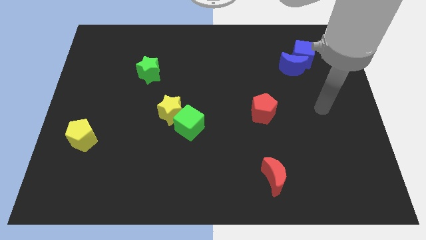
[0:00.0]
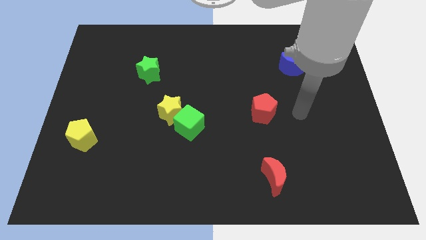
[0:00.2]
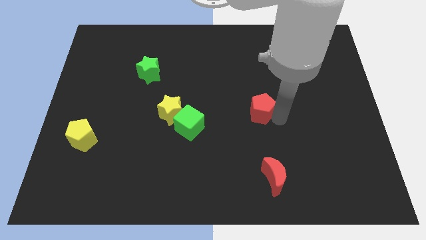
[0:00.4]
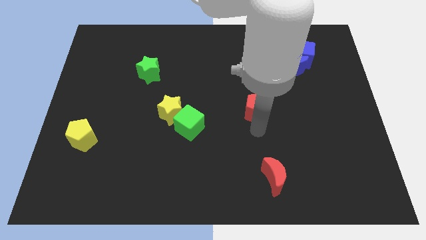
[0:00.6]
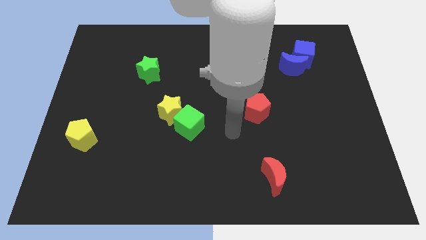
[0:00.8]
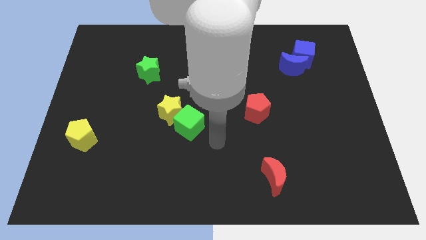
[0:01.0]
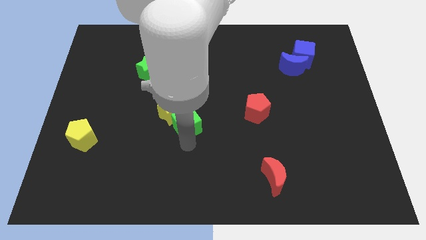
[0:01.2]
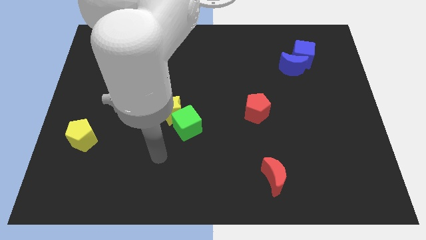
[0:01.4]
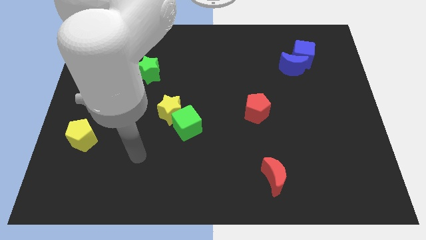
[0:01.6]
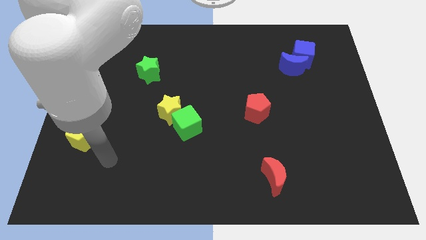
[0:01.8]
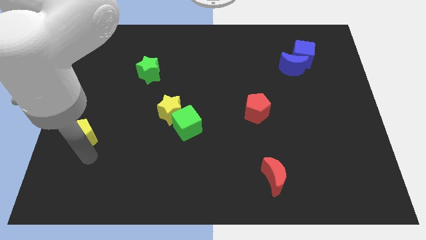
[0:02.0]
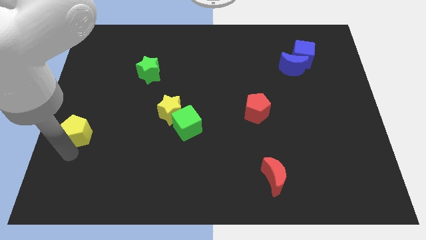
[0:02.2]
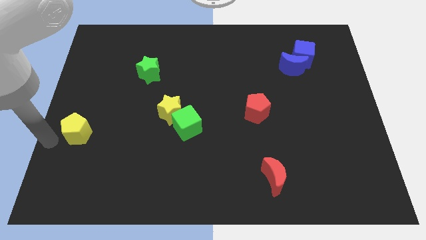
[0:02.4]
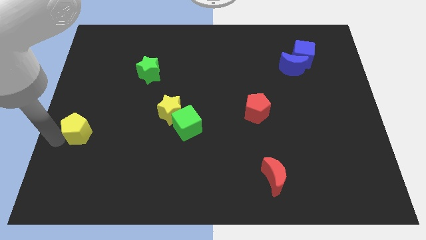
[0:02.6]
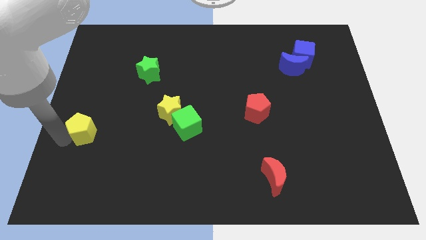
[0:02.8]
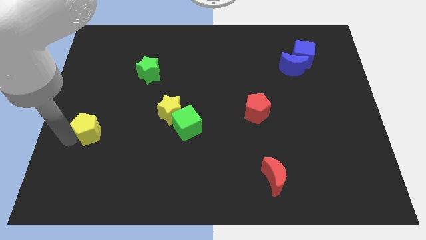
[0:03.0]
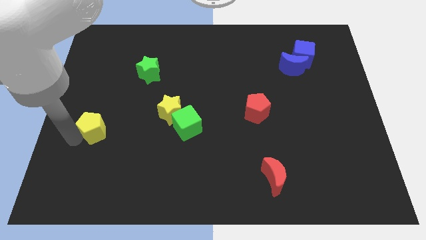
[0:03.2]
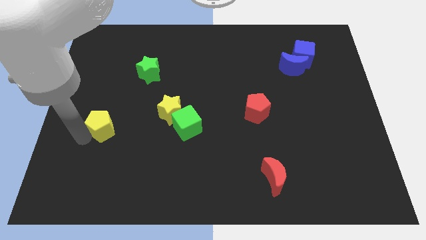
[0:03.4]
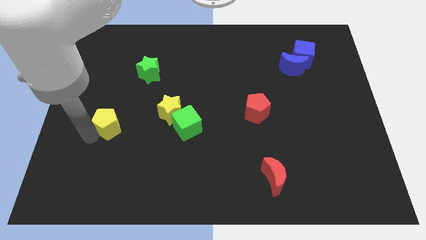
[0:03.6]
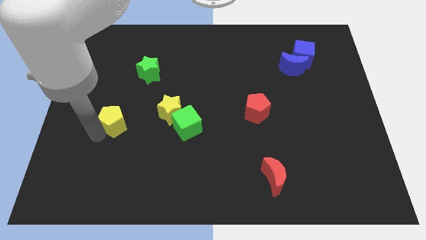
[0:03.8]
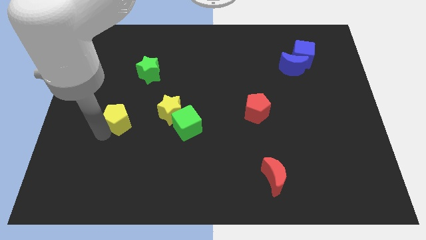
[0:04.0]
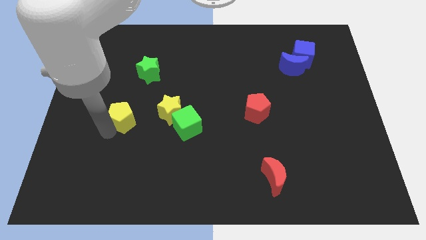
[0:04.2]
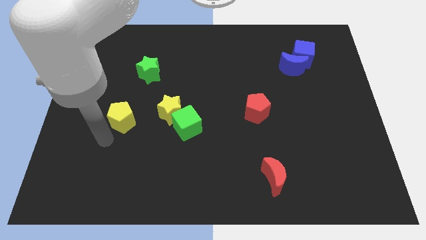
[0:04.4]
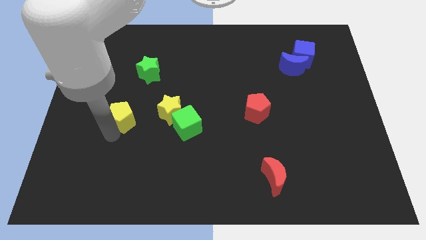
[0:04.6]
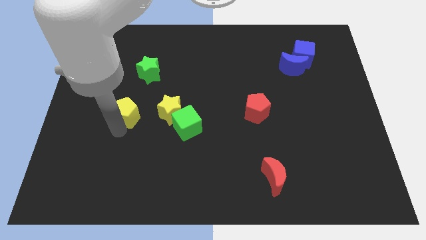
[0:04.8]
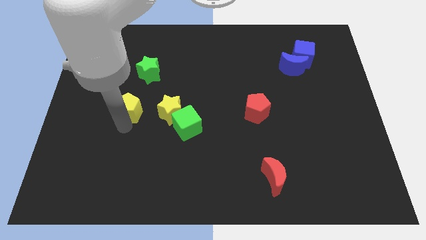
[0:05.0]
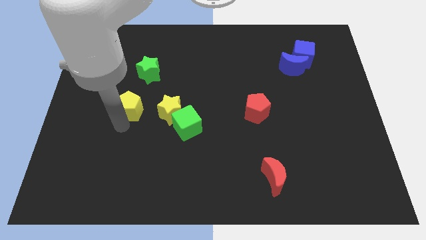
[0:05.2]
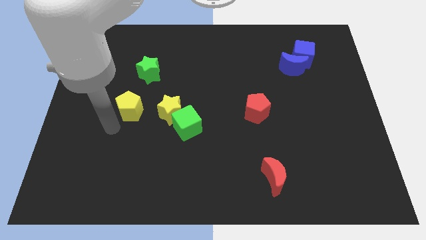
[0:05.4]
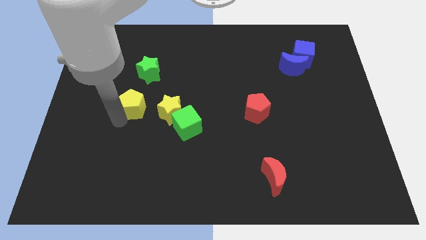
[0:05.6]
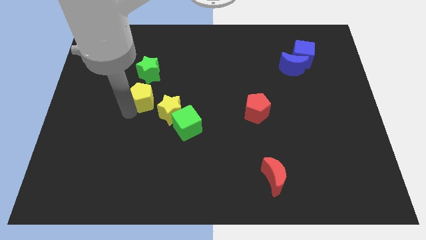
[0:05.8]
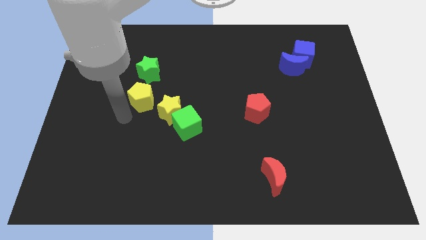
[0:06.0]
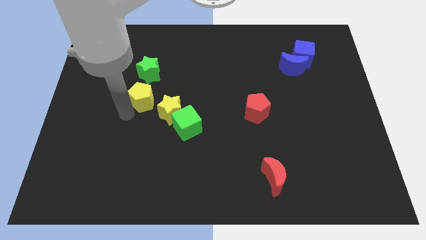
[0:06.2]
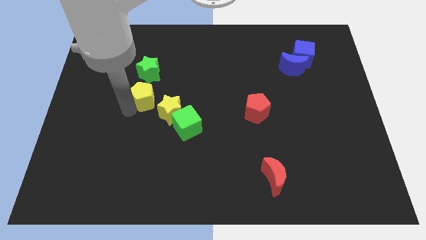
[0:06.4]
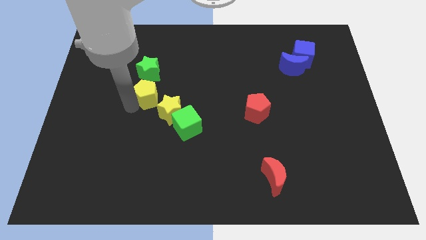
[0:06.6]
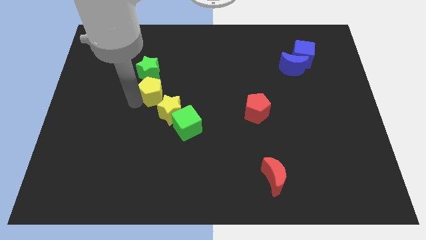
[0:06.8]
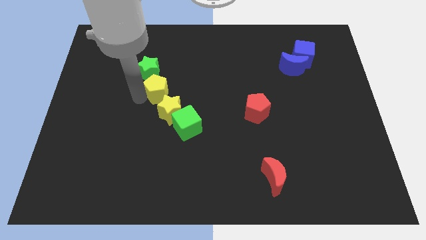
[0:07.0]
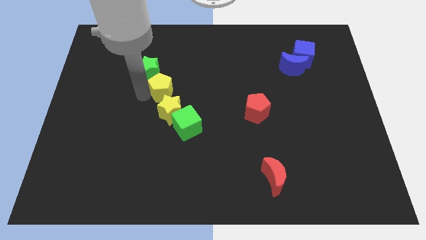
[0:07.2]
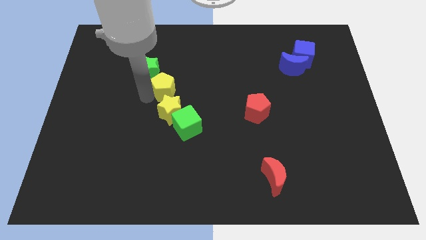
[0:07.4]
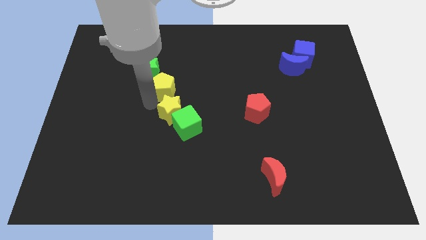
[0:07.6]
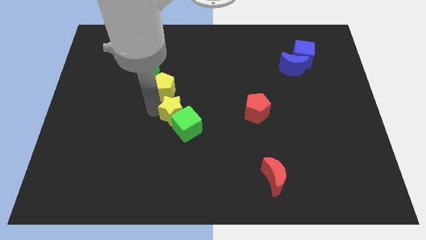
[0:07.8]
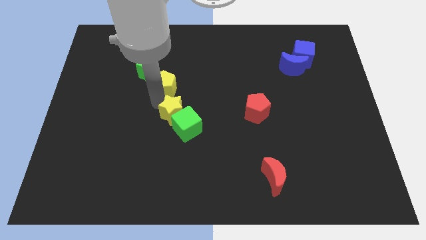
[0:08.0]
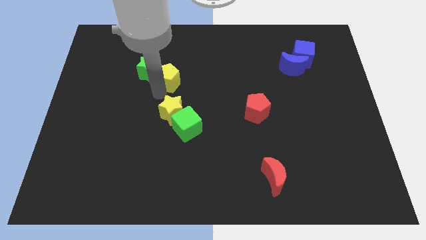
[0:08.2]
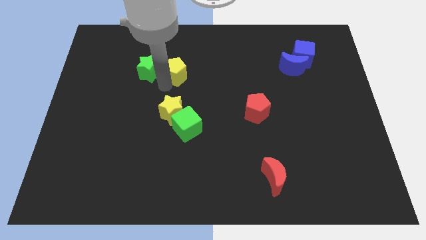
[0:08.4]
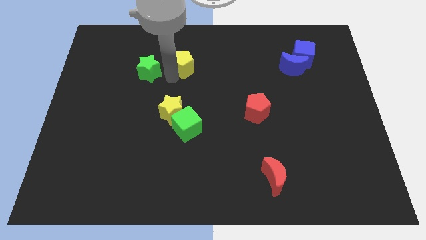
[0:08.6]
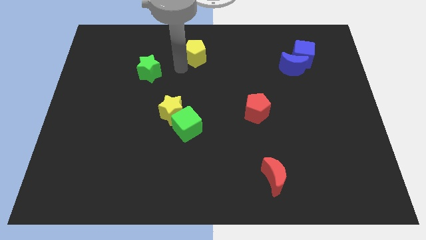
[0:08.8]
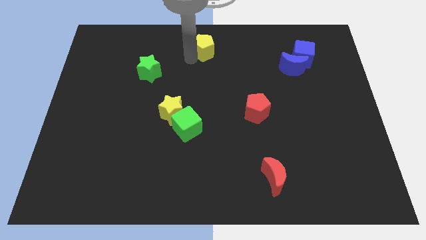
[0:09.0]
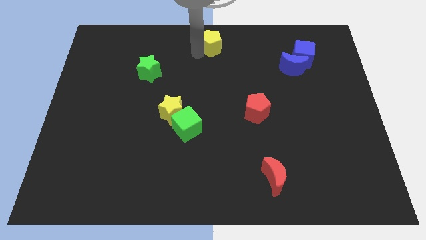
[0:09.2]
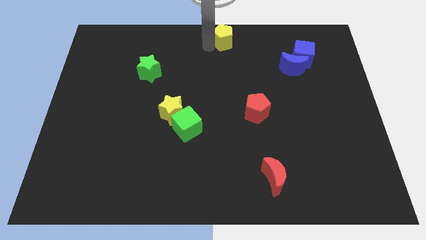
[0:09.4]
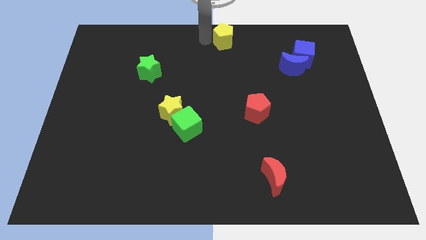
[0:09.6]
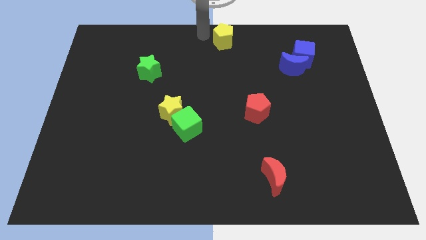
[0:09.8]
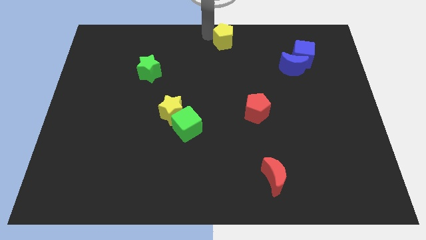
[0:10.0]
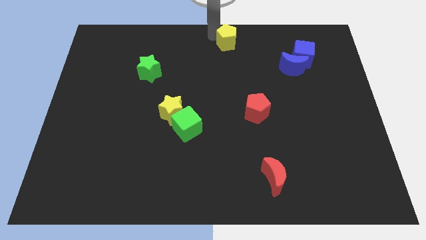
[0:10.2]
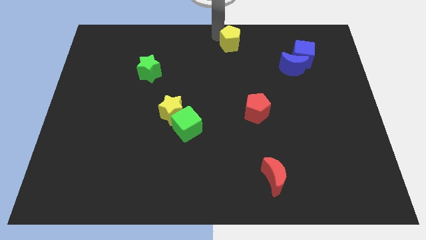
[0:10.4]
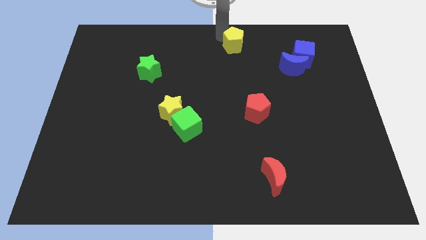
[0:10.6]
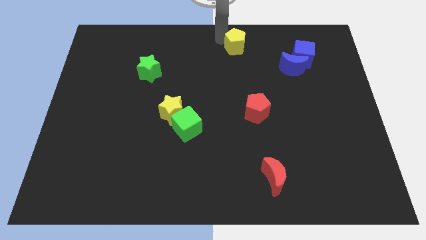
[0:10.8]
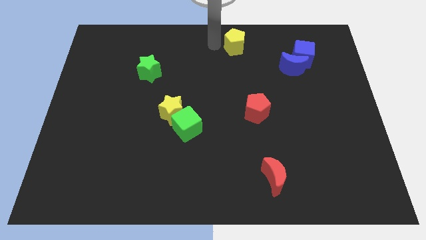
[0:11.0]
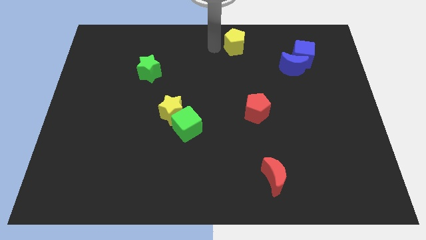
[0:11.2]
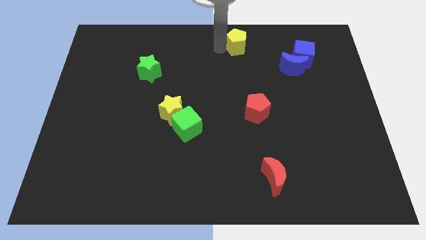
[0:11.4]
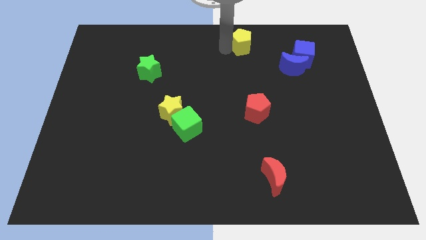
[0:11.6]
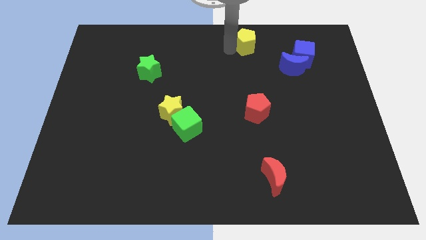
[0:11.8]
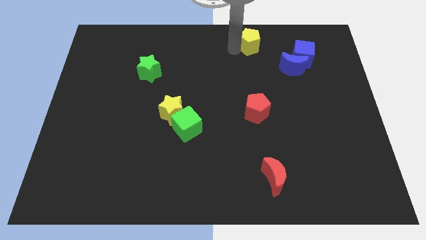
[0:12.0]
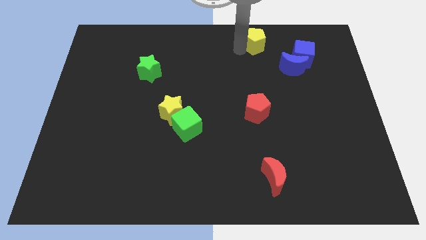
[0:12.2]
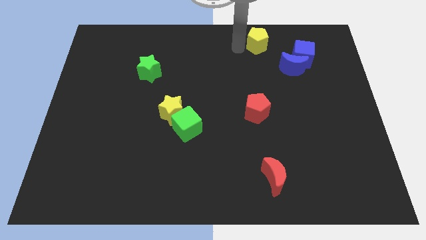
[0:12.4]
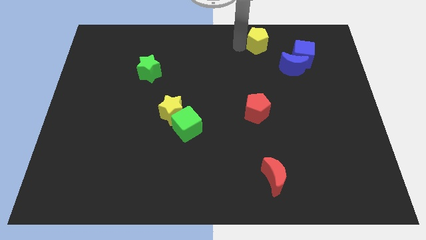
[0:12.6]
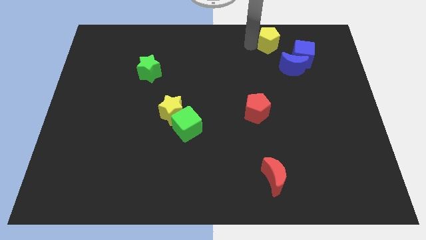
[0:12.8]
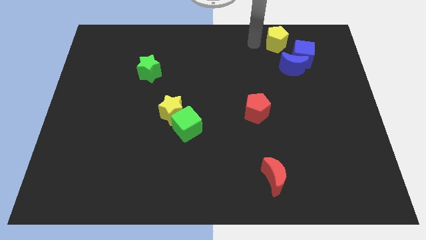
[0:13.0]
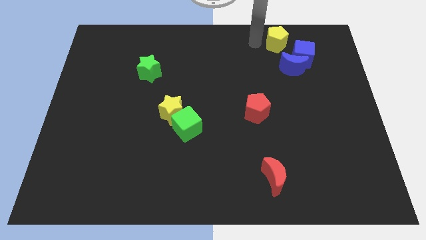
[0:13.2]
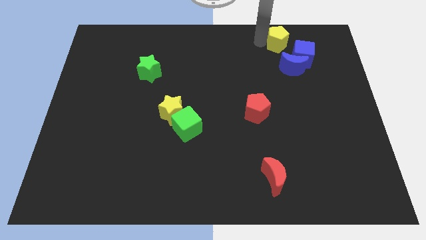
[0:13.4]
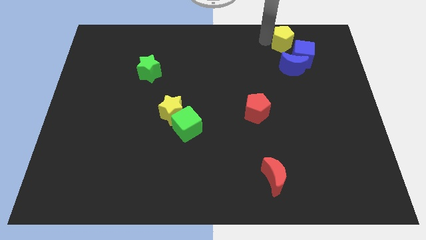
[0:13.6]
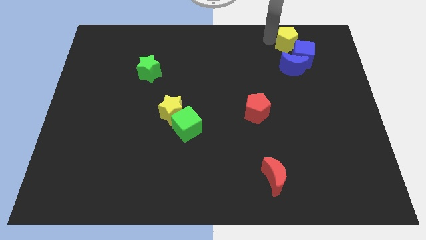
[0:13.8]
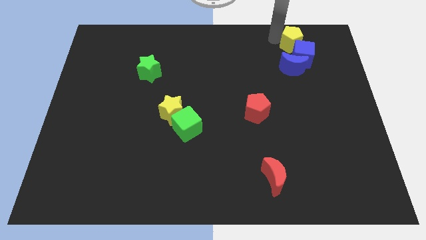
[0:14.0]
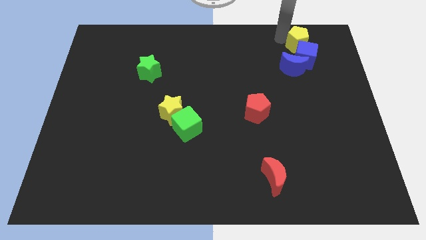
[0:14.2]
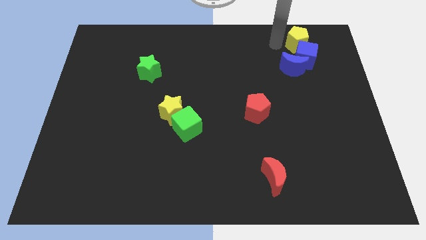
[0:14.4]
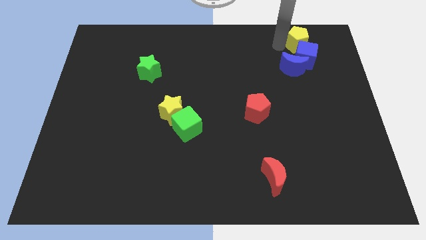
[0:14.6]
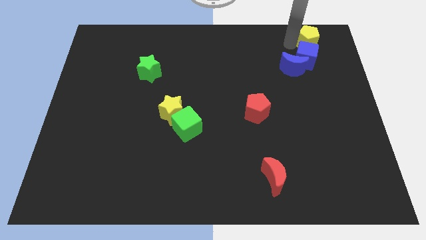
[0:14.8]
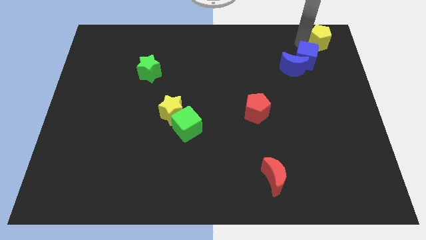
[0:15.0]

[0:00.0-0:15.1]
move the yellow pentagon to the top right of the board
